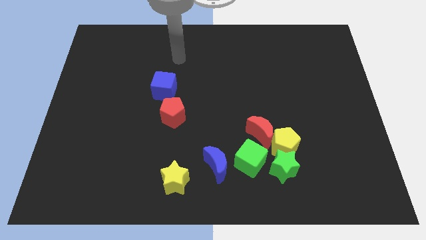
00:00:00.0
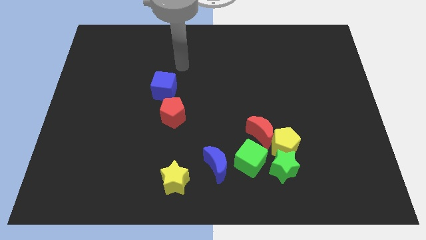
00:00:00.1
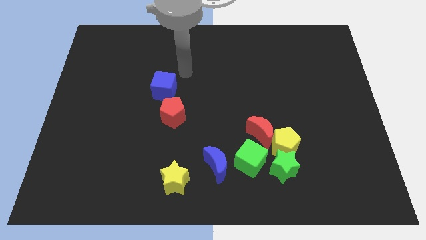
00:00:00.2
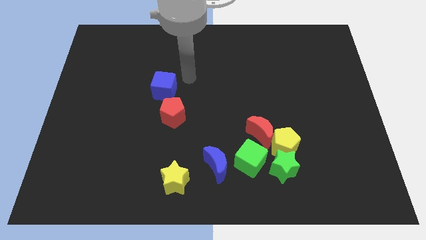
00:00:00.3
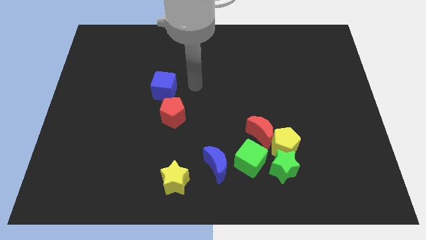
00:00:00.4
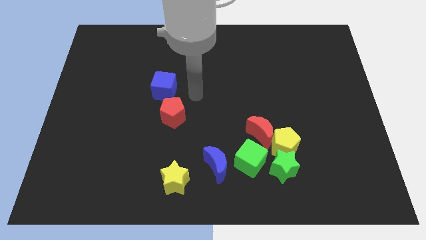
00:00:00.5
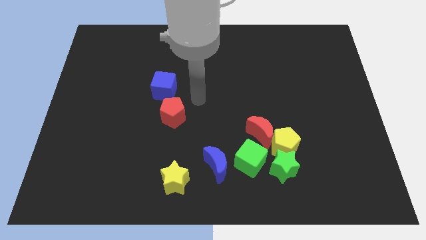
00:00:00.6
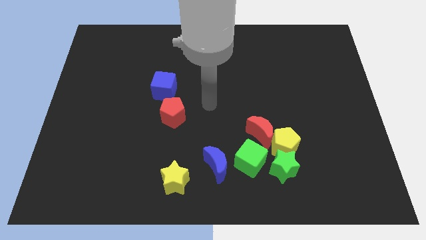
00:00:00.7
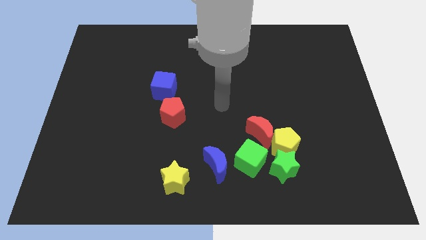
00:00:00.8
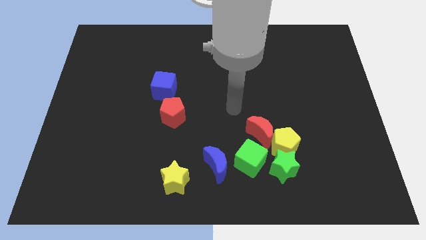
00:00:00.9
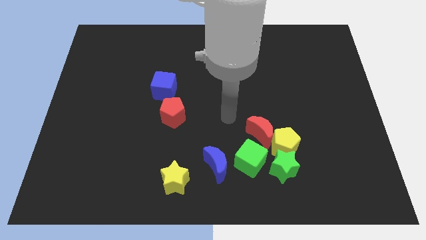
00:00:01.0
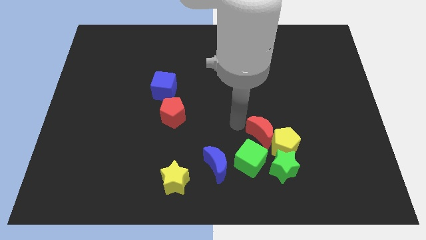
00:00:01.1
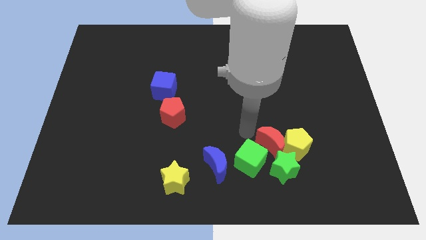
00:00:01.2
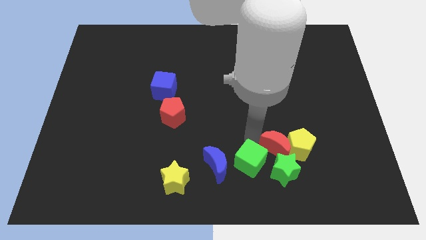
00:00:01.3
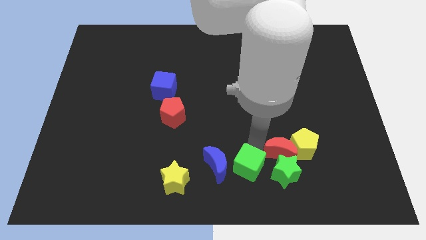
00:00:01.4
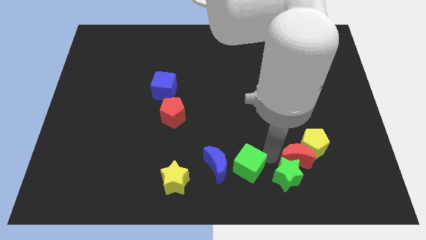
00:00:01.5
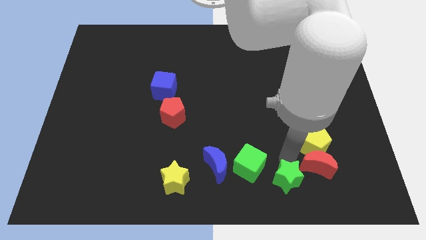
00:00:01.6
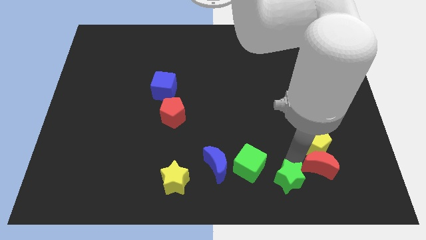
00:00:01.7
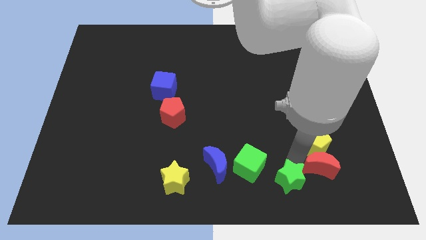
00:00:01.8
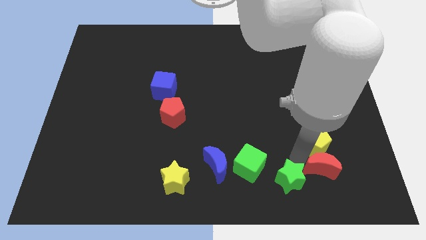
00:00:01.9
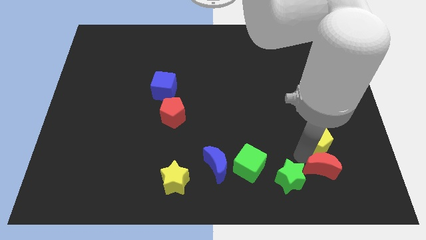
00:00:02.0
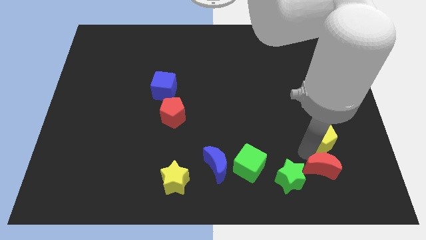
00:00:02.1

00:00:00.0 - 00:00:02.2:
separate the yellow pentagon from the green star, red moon, and green cube

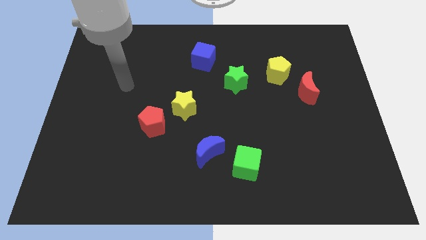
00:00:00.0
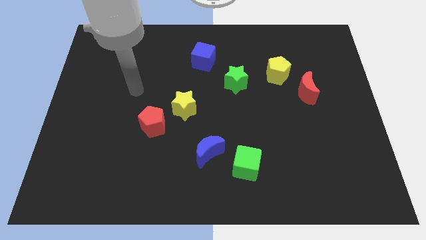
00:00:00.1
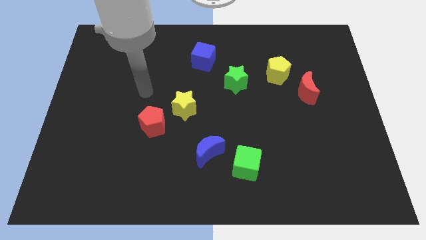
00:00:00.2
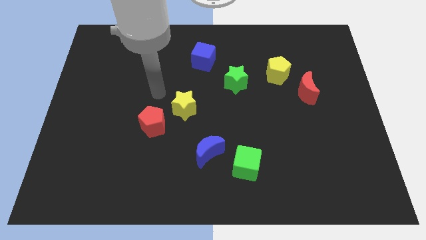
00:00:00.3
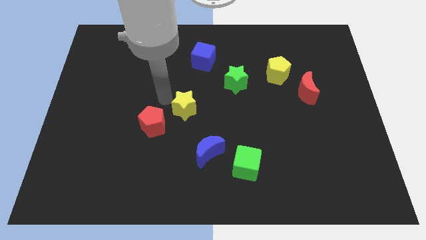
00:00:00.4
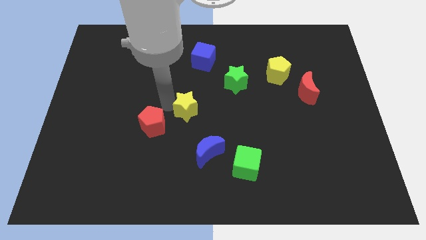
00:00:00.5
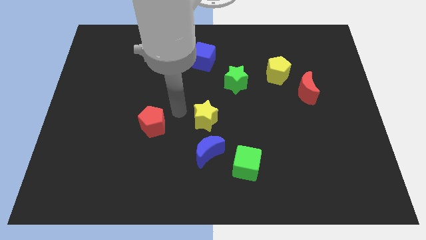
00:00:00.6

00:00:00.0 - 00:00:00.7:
move the red pentagon away from the yellow star

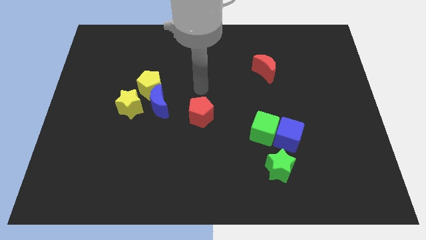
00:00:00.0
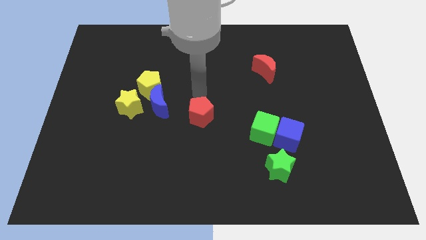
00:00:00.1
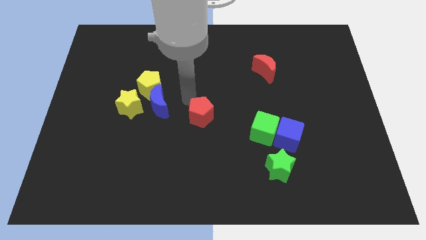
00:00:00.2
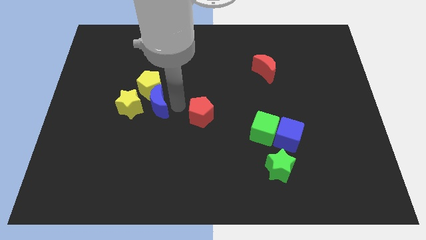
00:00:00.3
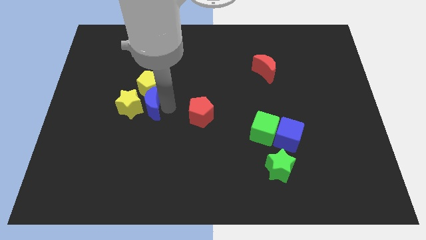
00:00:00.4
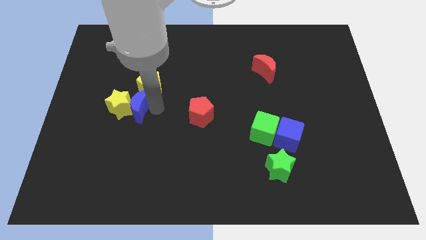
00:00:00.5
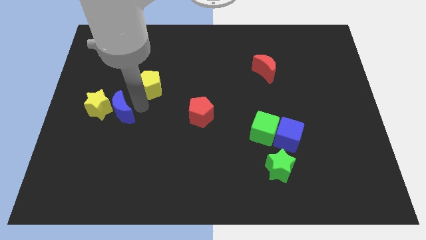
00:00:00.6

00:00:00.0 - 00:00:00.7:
move the yellow pentagon away from the blue moon and yellow star

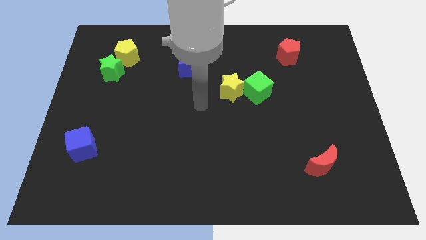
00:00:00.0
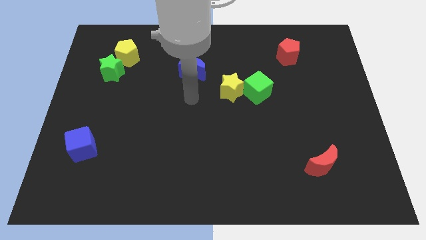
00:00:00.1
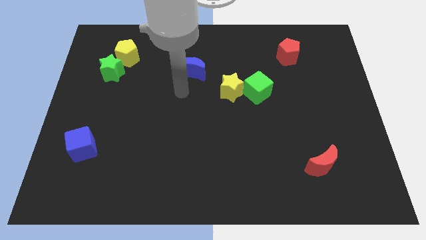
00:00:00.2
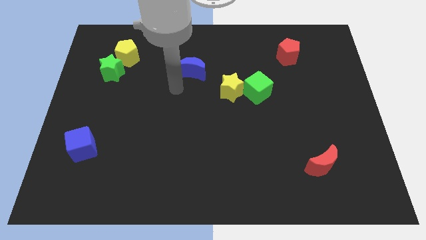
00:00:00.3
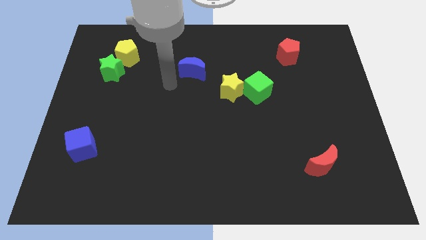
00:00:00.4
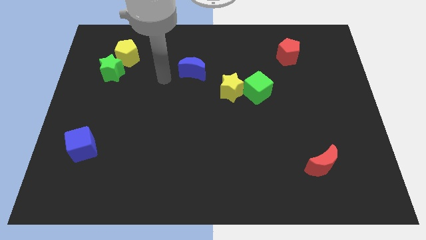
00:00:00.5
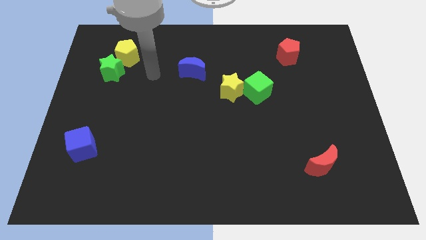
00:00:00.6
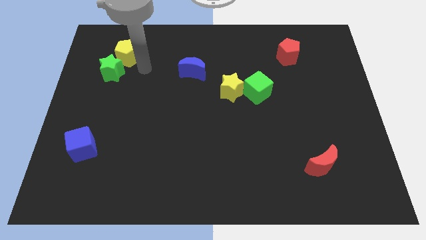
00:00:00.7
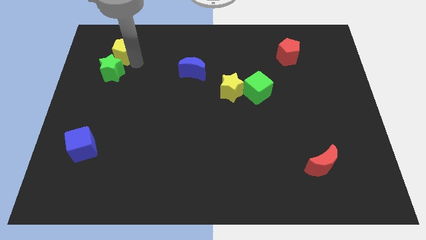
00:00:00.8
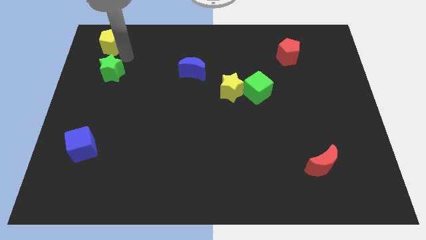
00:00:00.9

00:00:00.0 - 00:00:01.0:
move the green star away from the yellow pentagon

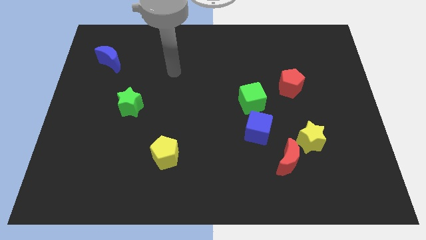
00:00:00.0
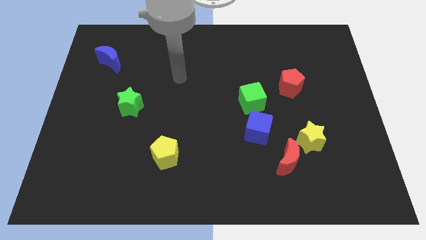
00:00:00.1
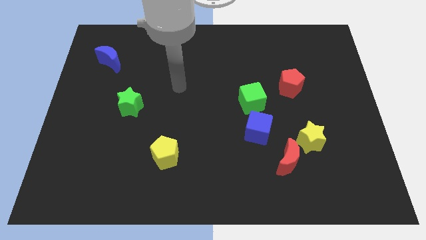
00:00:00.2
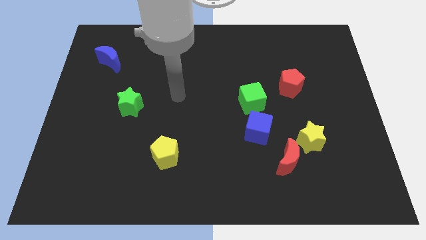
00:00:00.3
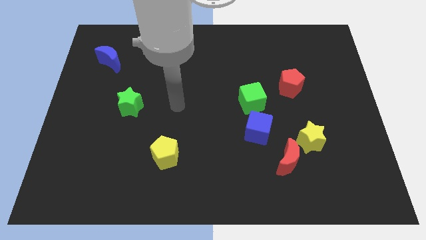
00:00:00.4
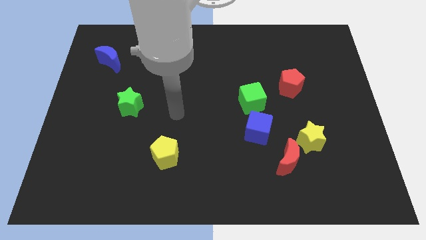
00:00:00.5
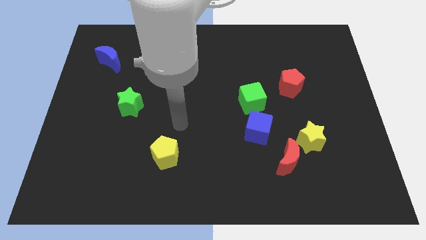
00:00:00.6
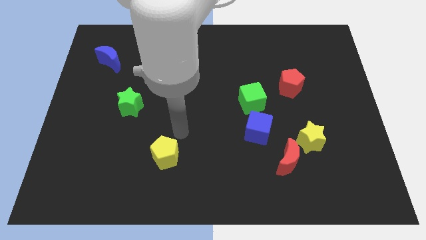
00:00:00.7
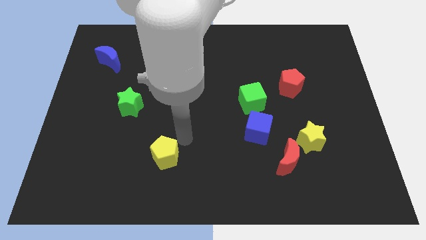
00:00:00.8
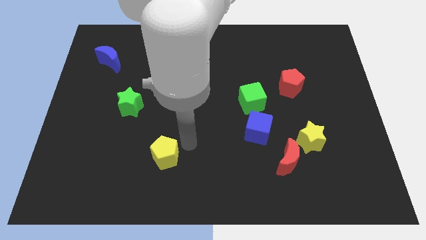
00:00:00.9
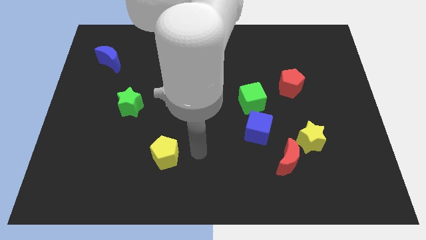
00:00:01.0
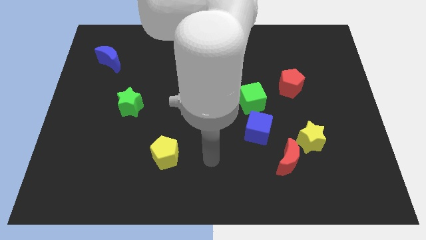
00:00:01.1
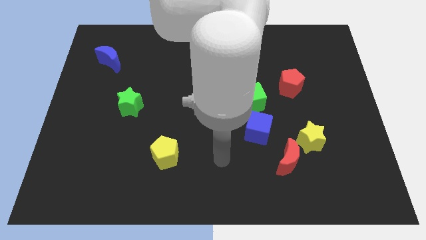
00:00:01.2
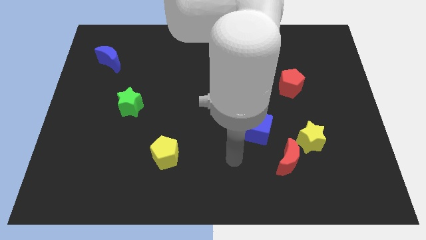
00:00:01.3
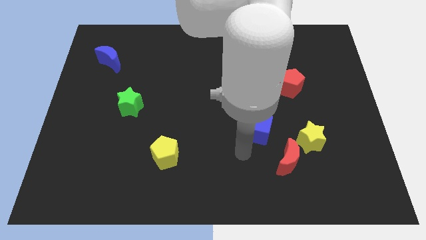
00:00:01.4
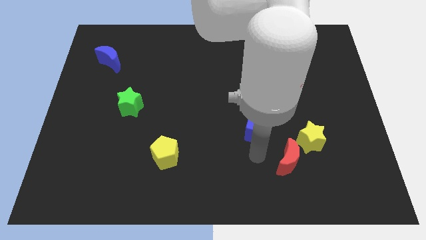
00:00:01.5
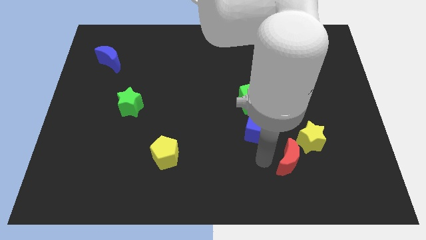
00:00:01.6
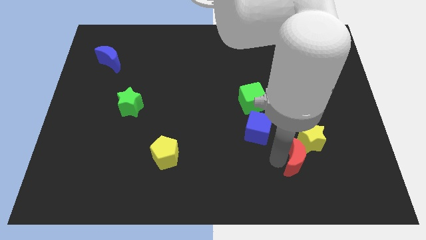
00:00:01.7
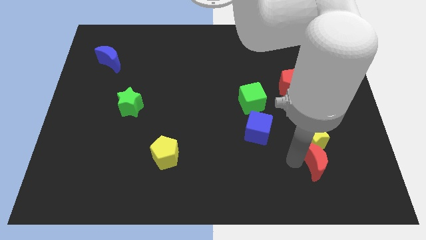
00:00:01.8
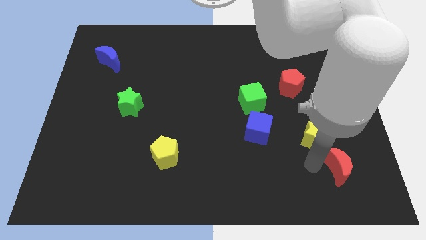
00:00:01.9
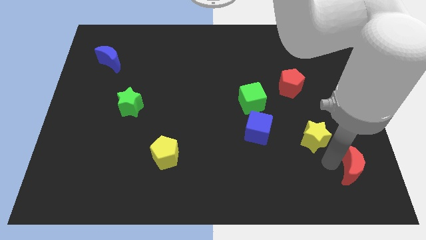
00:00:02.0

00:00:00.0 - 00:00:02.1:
separate the yellow star from the red moon

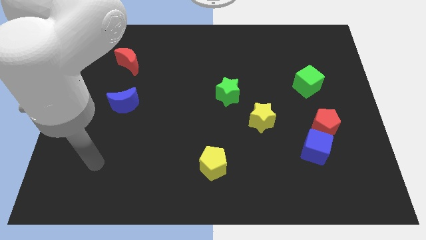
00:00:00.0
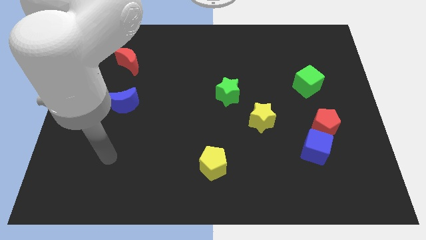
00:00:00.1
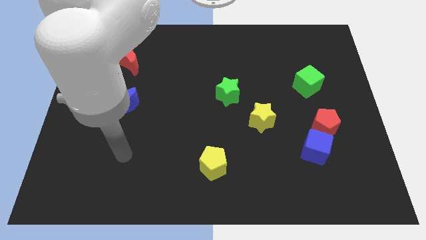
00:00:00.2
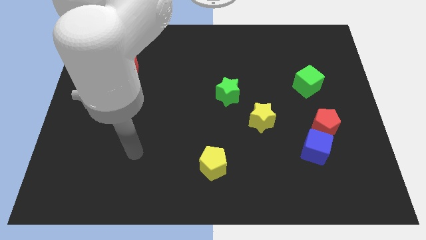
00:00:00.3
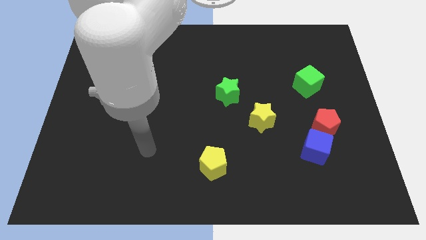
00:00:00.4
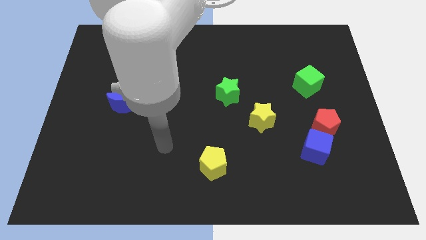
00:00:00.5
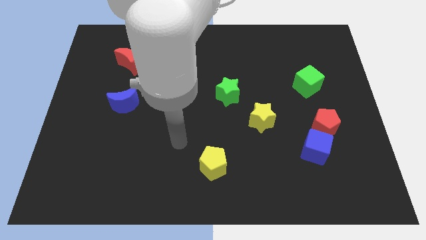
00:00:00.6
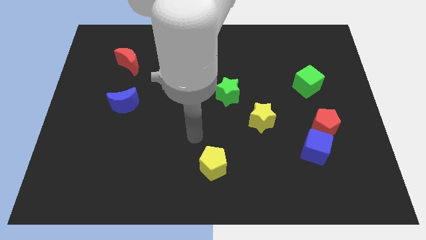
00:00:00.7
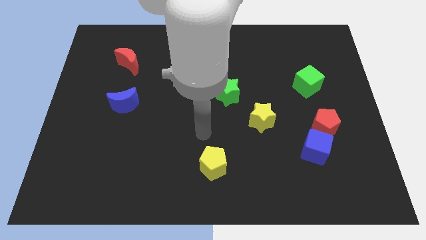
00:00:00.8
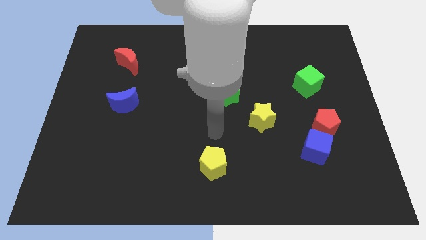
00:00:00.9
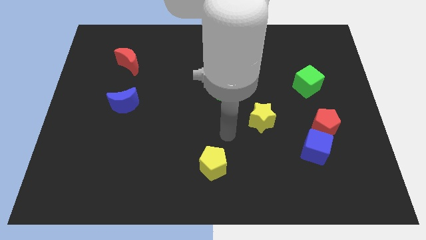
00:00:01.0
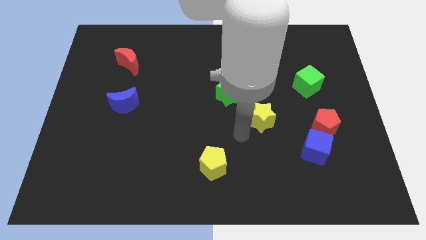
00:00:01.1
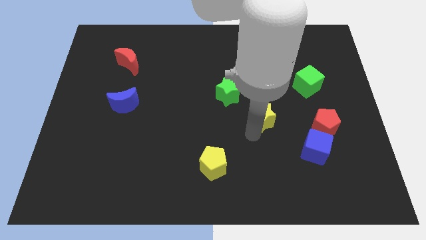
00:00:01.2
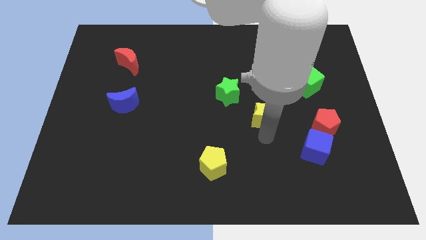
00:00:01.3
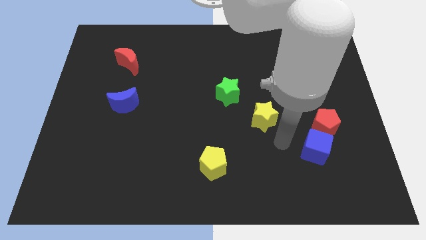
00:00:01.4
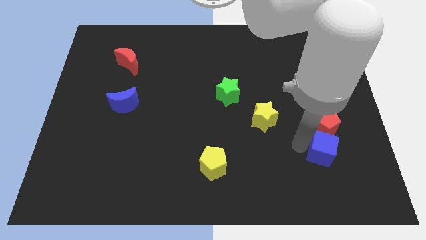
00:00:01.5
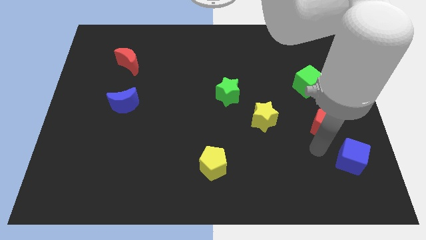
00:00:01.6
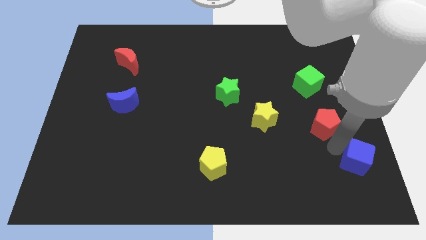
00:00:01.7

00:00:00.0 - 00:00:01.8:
move the red pentagon away from the blue cube

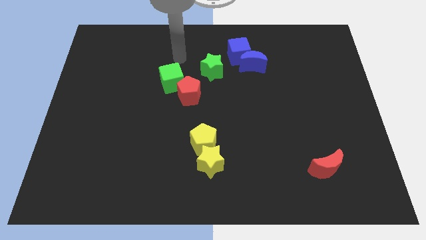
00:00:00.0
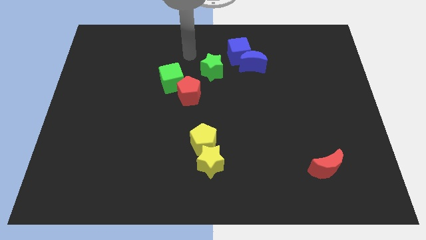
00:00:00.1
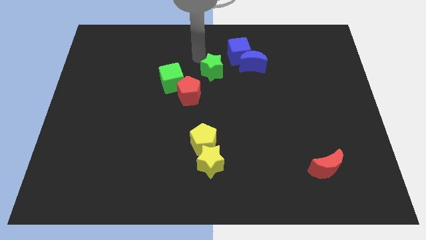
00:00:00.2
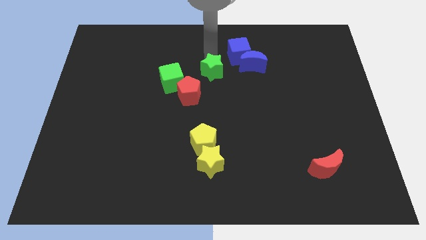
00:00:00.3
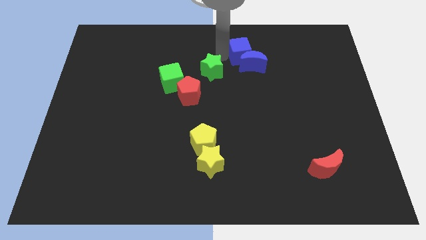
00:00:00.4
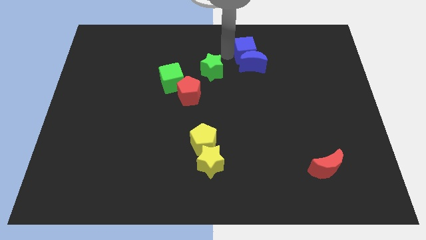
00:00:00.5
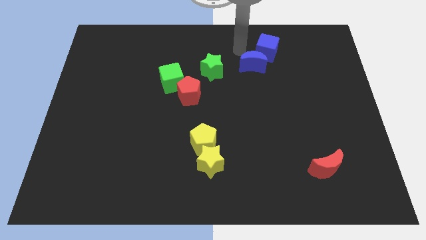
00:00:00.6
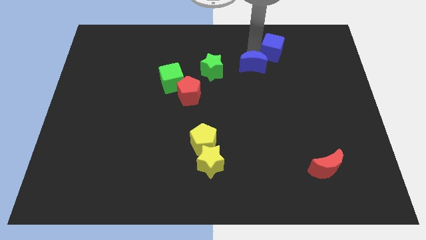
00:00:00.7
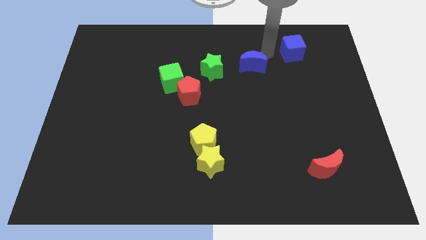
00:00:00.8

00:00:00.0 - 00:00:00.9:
move the blue moon away from the blue cube

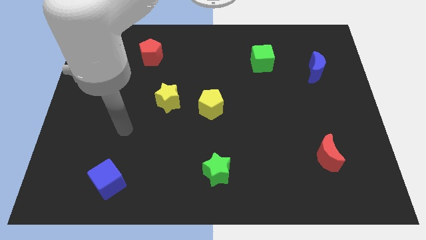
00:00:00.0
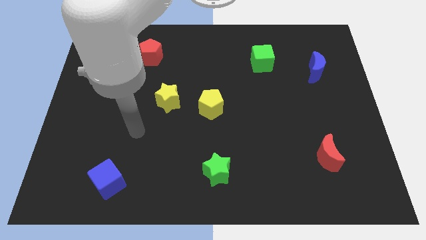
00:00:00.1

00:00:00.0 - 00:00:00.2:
separate the yellow star from the yellow pentagon
